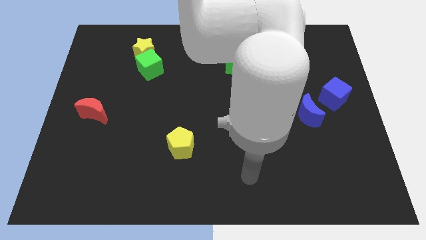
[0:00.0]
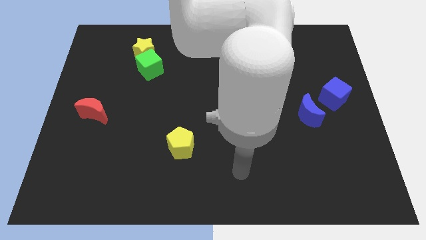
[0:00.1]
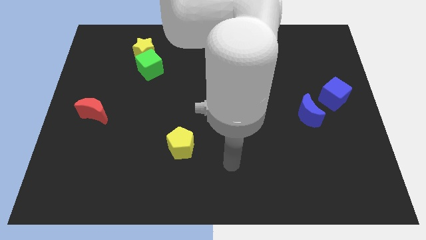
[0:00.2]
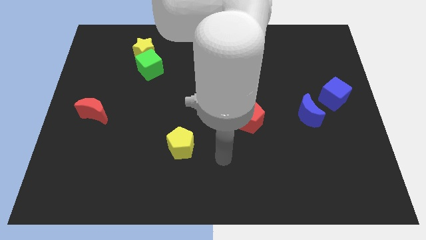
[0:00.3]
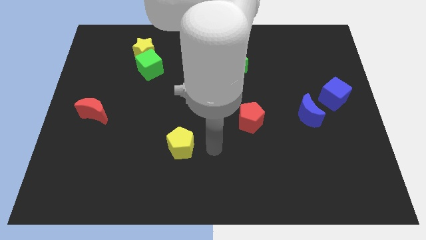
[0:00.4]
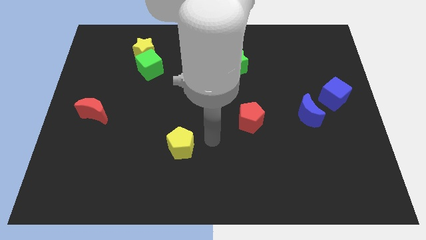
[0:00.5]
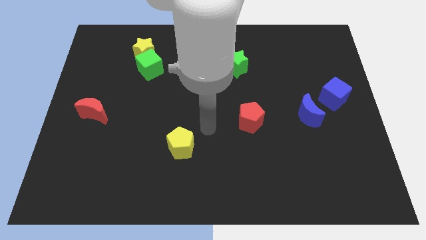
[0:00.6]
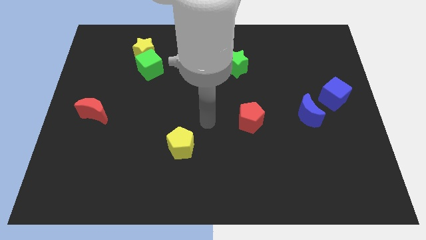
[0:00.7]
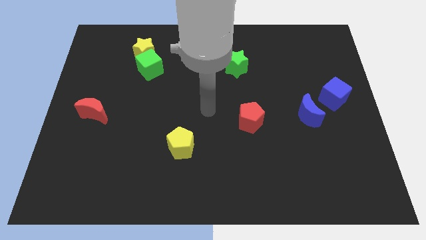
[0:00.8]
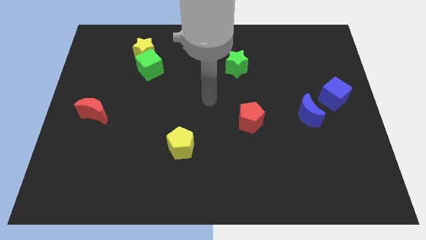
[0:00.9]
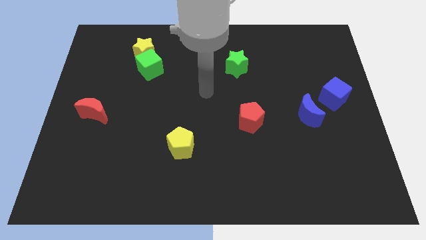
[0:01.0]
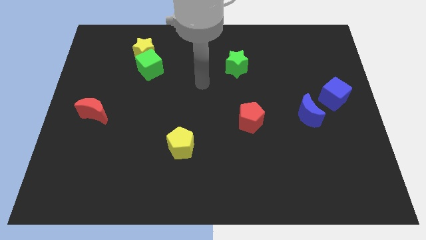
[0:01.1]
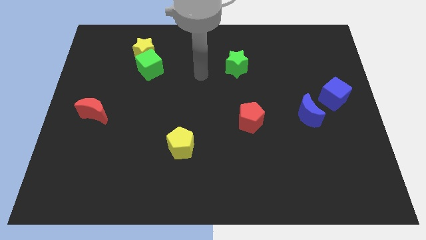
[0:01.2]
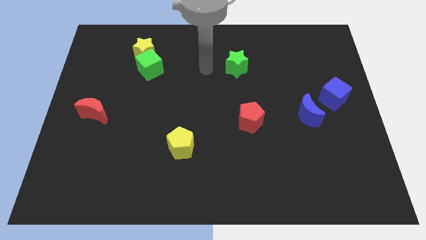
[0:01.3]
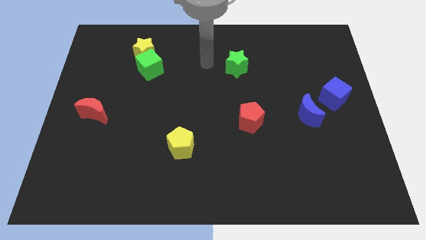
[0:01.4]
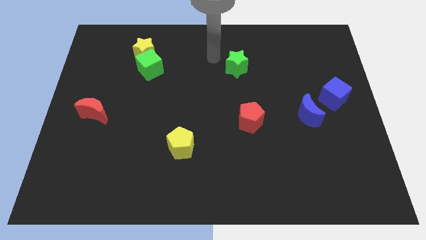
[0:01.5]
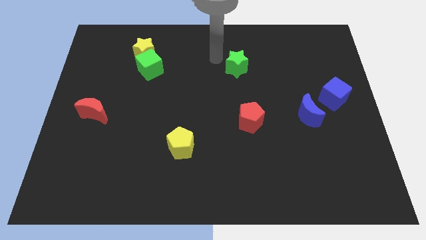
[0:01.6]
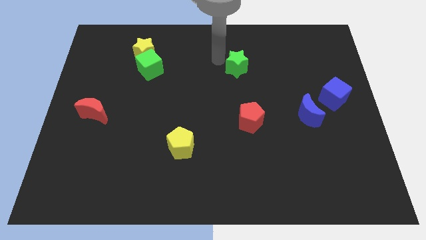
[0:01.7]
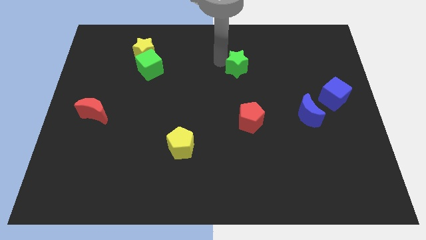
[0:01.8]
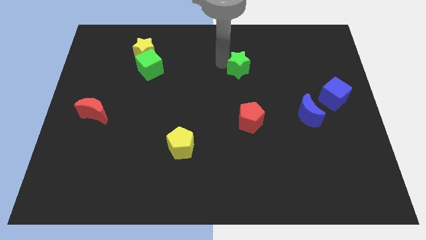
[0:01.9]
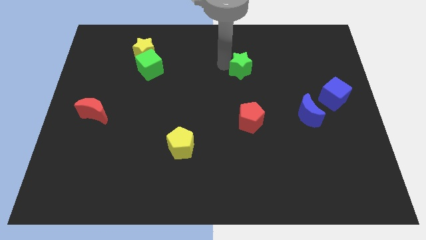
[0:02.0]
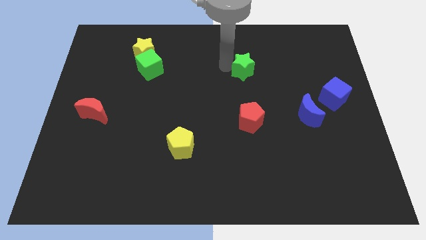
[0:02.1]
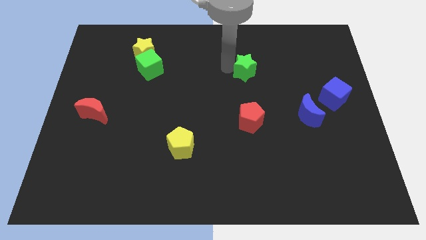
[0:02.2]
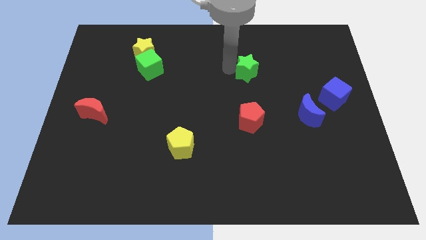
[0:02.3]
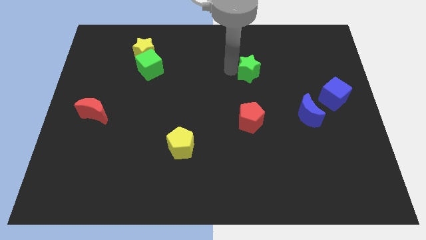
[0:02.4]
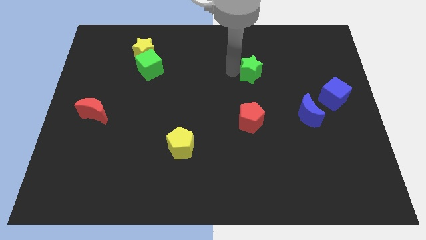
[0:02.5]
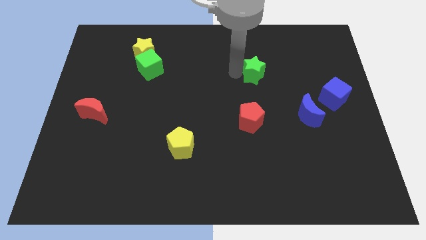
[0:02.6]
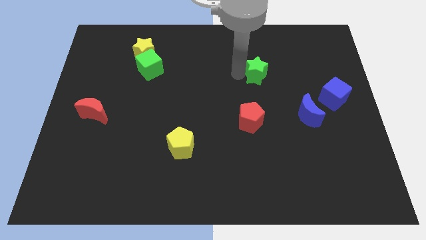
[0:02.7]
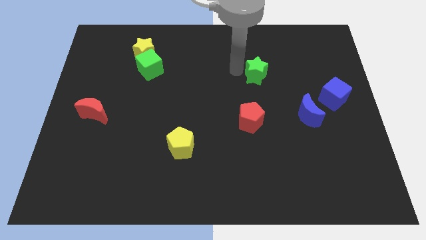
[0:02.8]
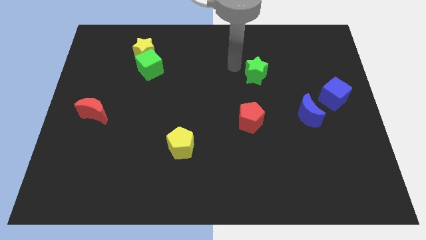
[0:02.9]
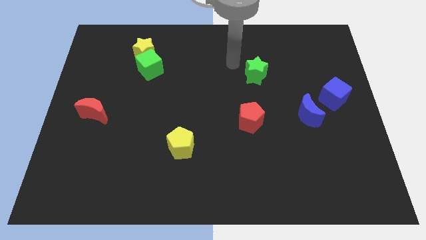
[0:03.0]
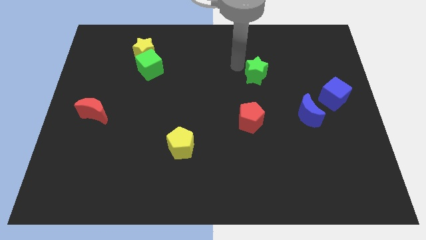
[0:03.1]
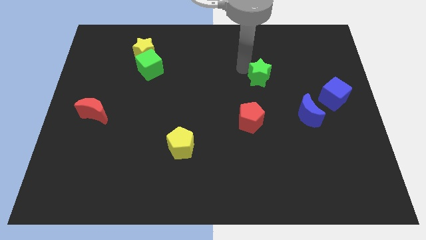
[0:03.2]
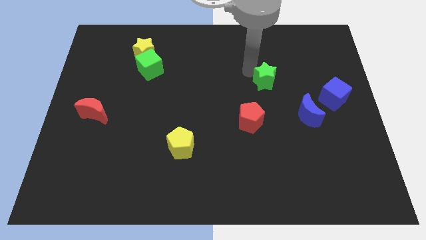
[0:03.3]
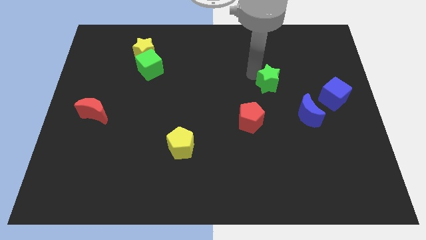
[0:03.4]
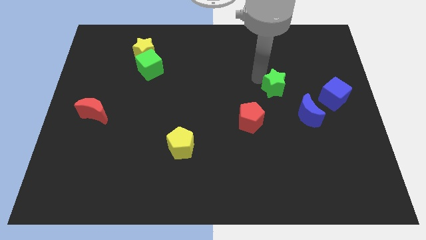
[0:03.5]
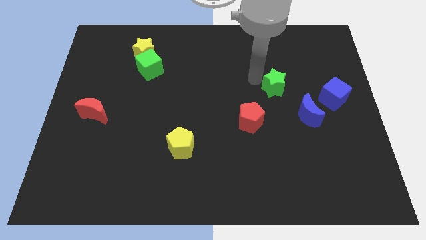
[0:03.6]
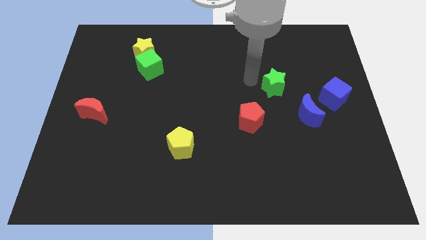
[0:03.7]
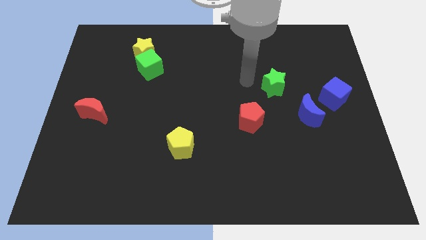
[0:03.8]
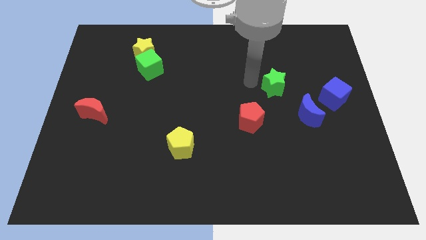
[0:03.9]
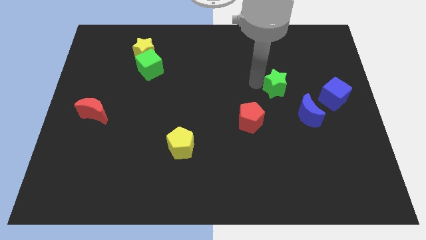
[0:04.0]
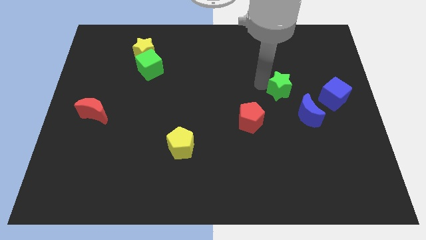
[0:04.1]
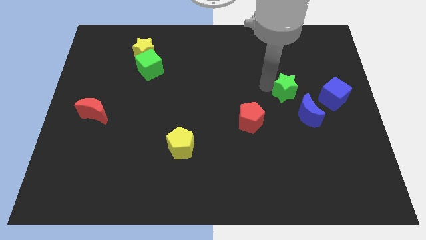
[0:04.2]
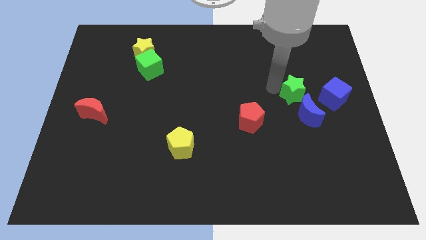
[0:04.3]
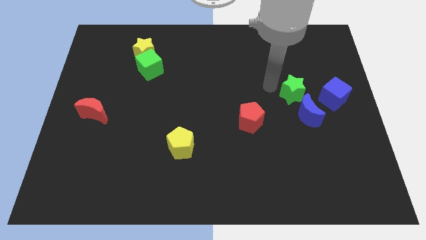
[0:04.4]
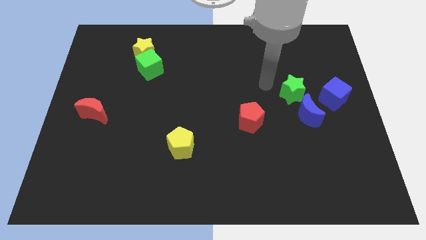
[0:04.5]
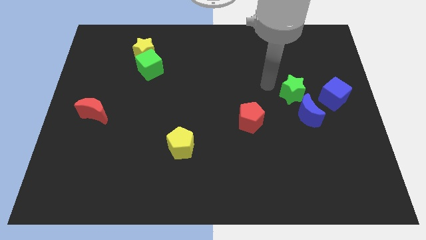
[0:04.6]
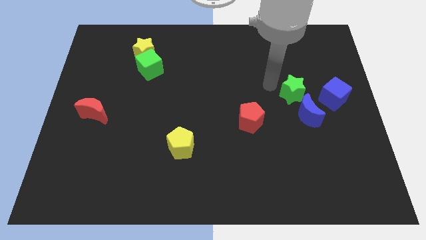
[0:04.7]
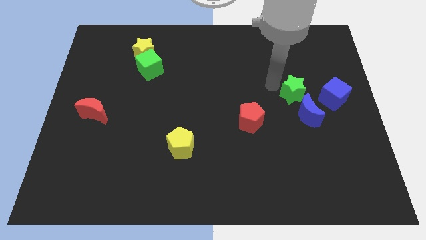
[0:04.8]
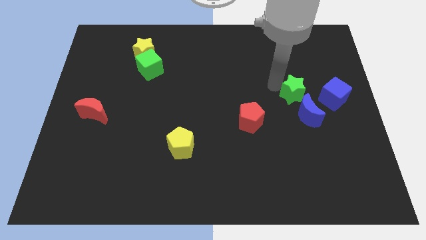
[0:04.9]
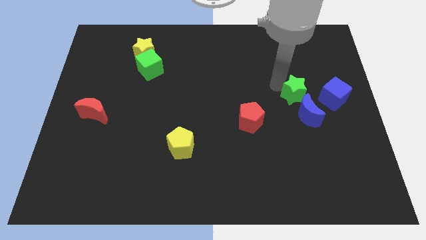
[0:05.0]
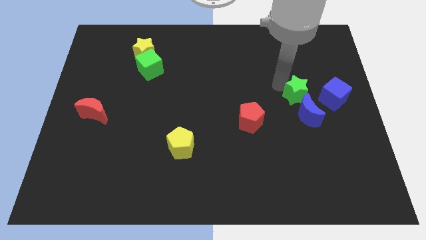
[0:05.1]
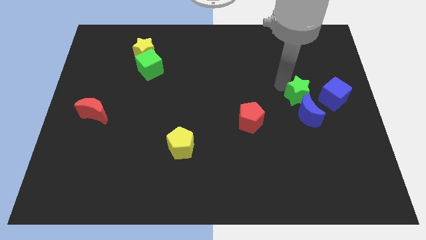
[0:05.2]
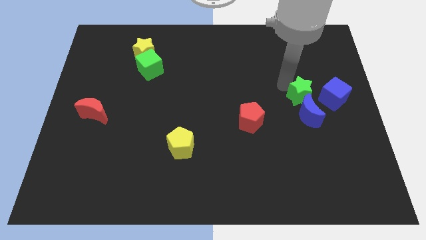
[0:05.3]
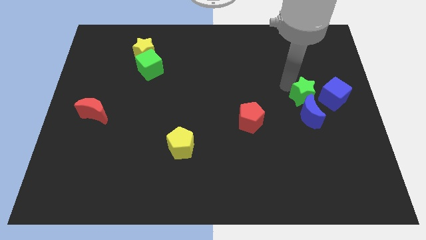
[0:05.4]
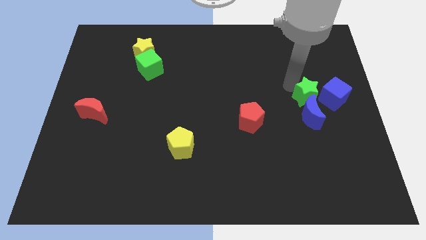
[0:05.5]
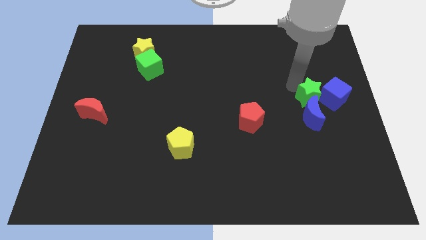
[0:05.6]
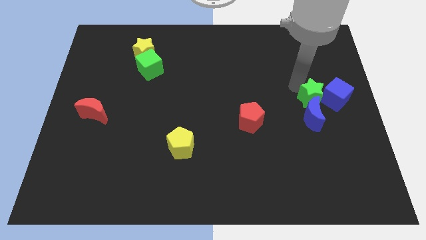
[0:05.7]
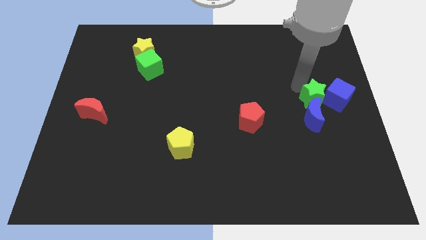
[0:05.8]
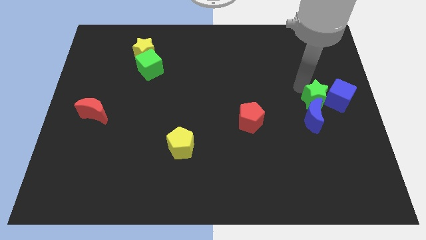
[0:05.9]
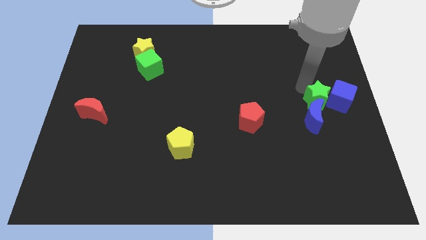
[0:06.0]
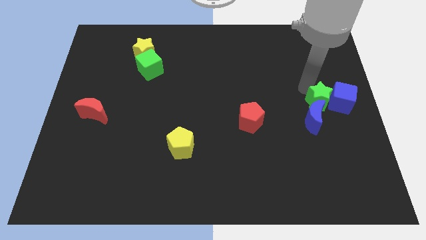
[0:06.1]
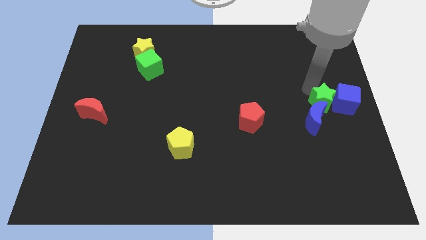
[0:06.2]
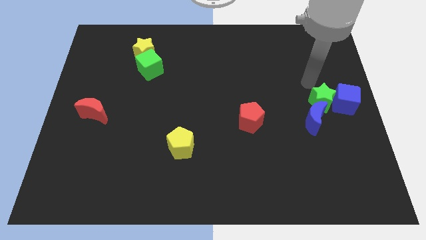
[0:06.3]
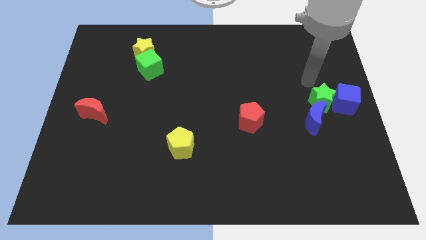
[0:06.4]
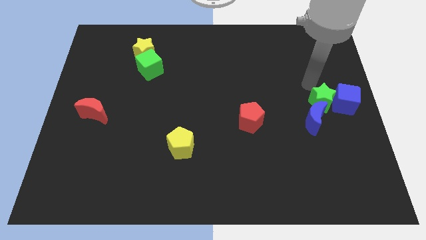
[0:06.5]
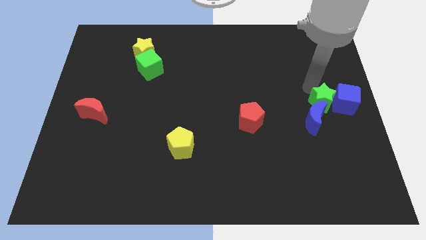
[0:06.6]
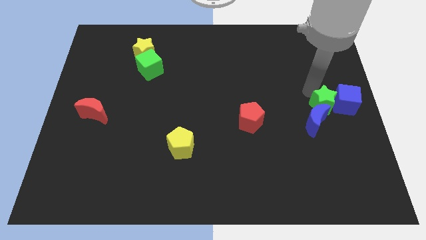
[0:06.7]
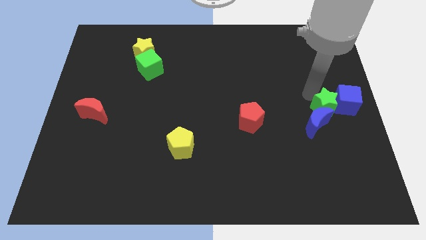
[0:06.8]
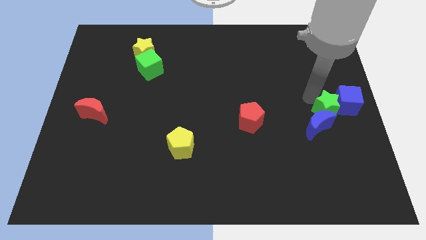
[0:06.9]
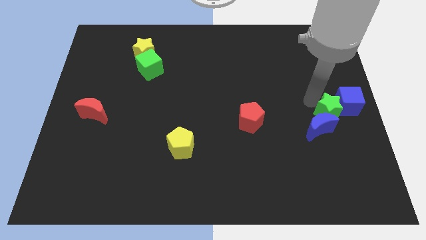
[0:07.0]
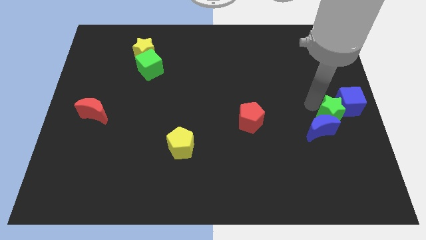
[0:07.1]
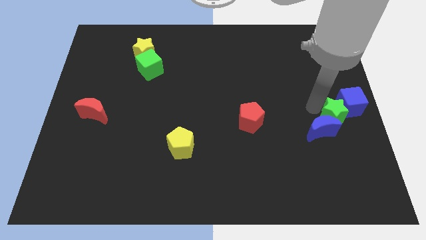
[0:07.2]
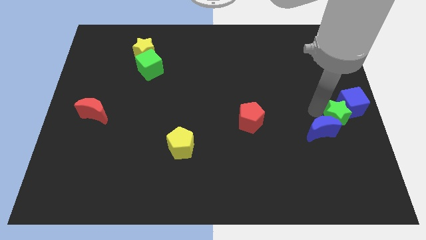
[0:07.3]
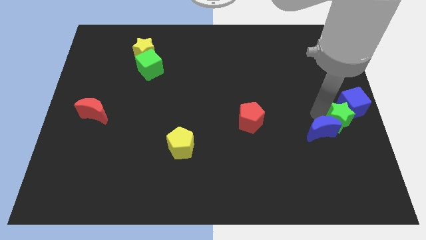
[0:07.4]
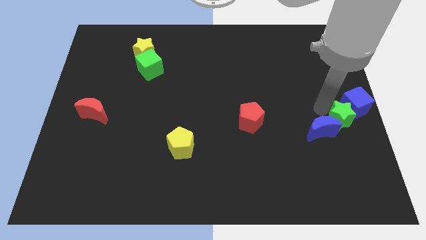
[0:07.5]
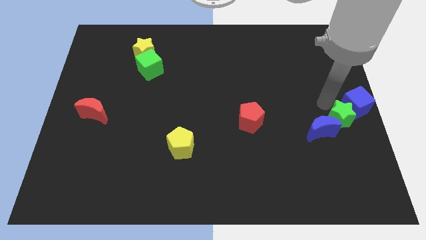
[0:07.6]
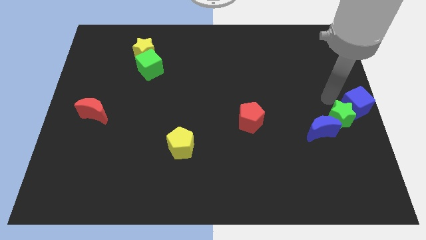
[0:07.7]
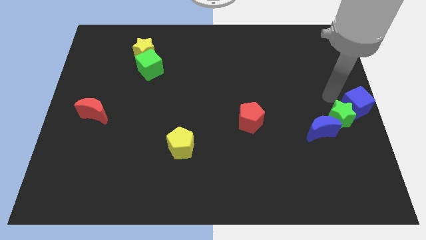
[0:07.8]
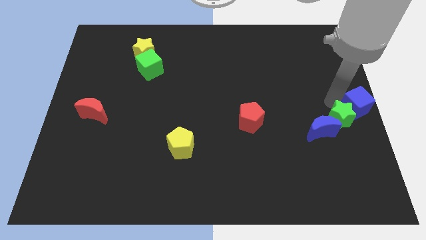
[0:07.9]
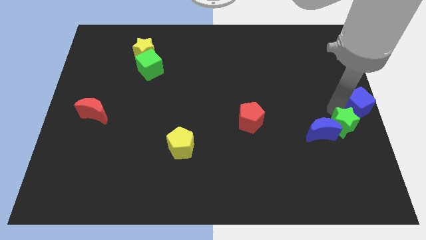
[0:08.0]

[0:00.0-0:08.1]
slide the green star to the bottom right side of the blue moon

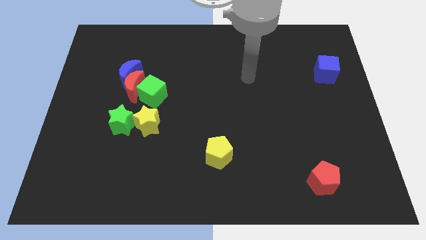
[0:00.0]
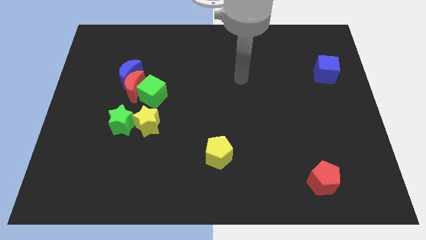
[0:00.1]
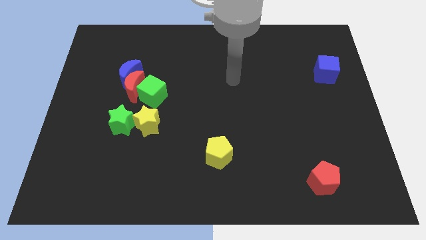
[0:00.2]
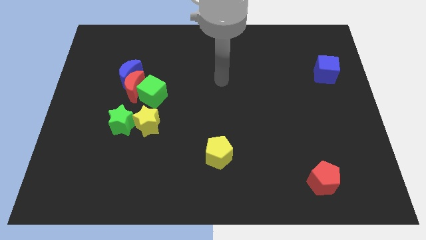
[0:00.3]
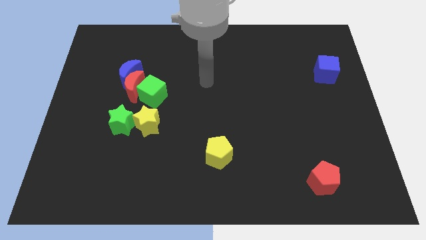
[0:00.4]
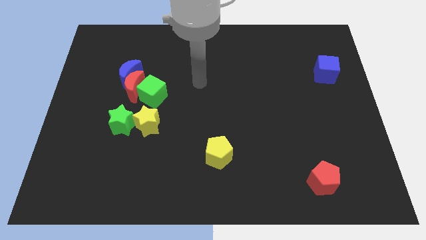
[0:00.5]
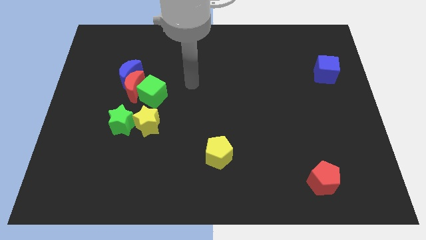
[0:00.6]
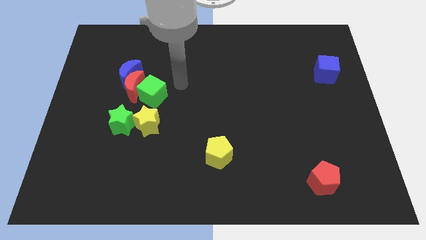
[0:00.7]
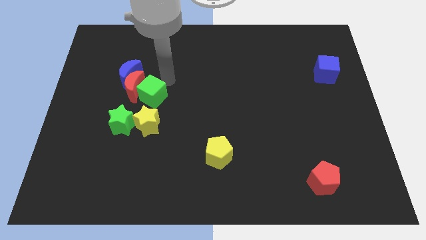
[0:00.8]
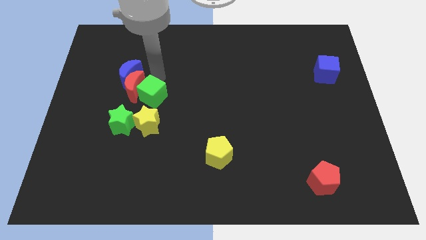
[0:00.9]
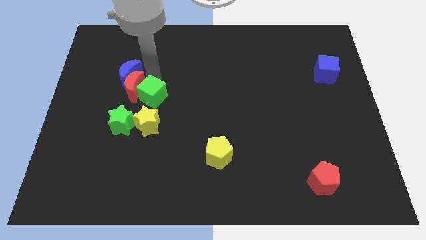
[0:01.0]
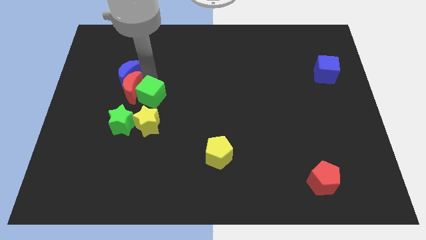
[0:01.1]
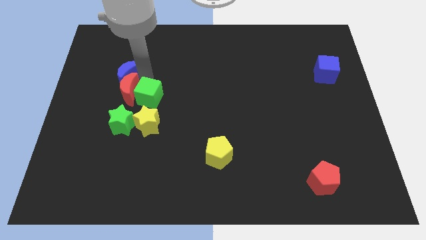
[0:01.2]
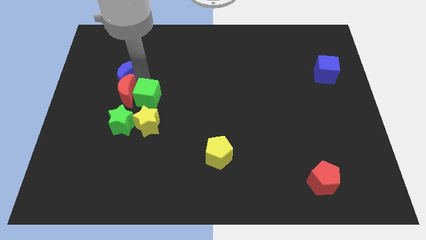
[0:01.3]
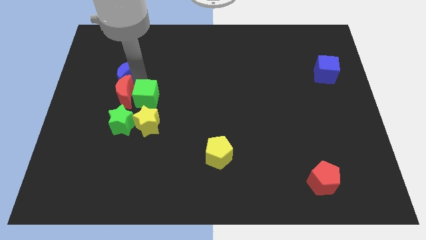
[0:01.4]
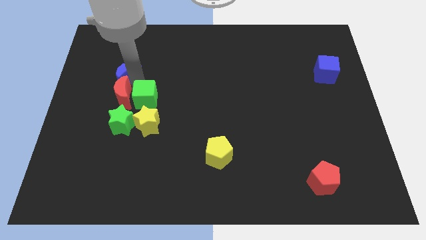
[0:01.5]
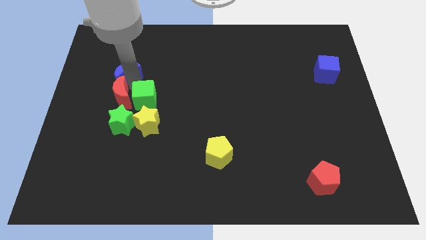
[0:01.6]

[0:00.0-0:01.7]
push the red moon diagonally up and to the left of the green star
